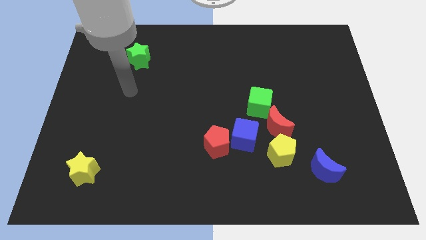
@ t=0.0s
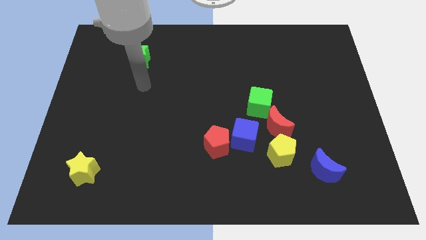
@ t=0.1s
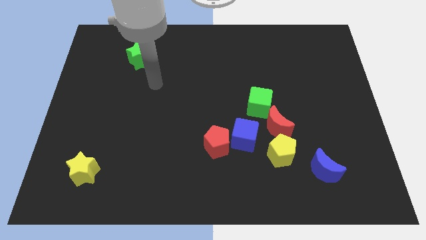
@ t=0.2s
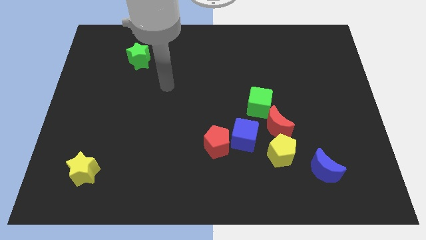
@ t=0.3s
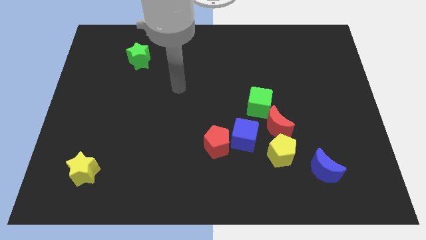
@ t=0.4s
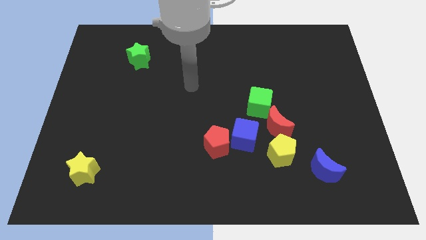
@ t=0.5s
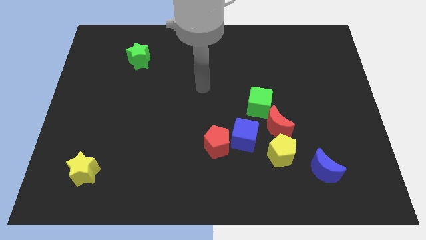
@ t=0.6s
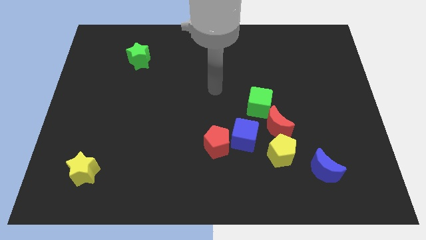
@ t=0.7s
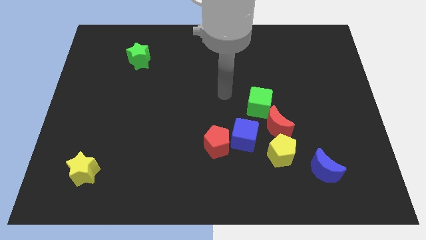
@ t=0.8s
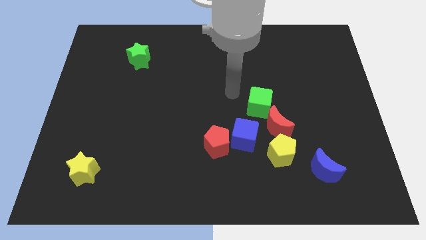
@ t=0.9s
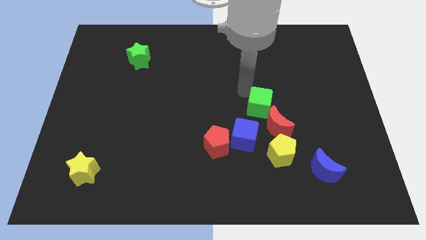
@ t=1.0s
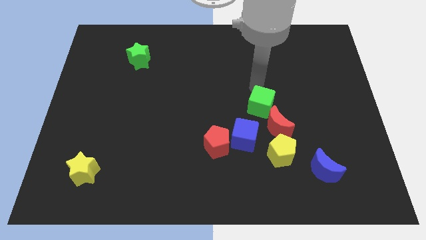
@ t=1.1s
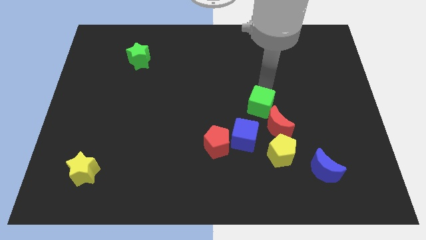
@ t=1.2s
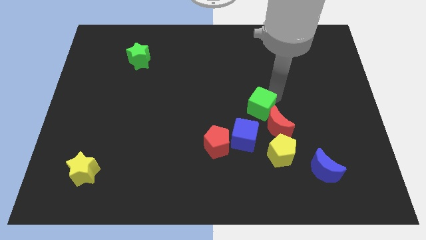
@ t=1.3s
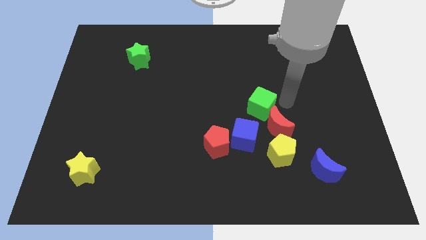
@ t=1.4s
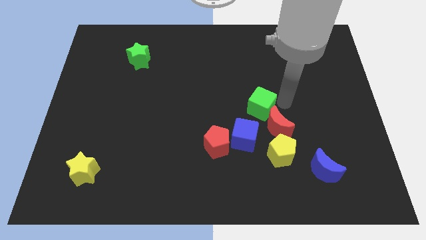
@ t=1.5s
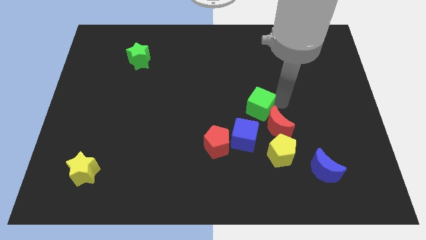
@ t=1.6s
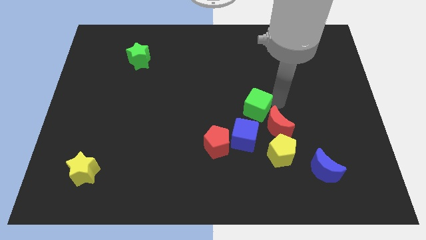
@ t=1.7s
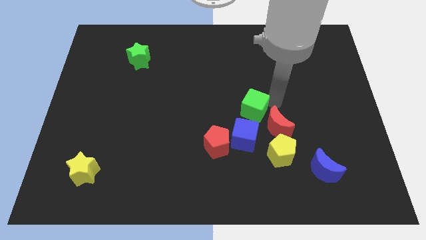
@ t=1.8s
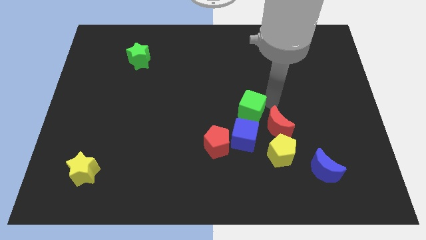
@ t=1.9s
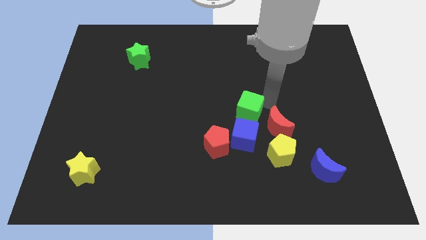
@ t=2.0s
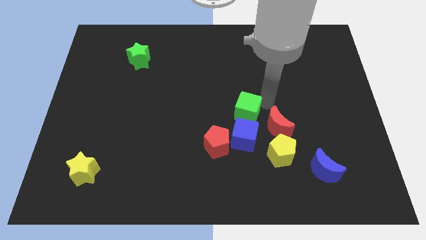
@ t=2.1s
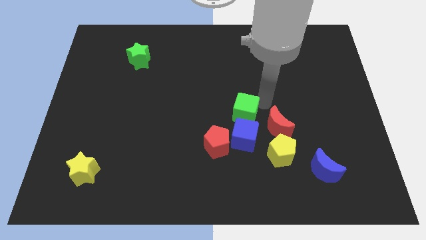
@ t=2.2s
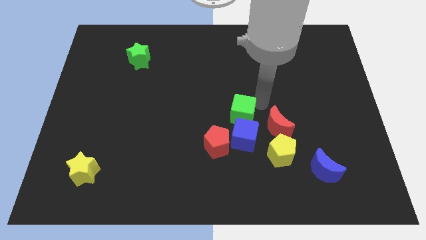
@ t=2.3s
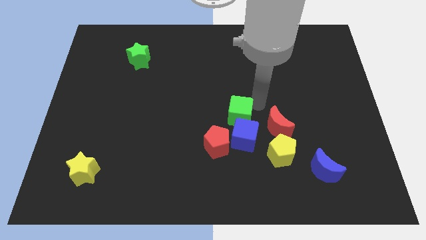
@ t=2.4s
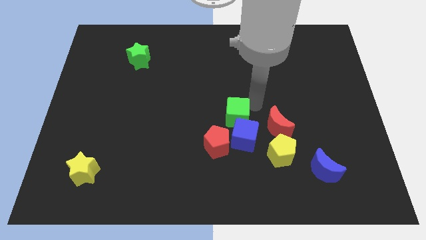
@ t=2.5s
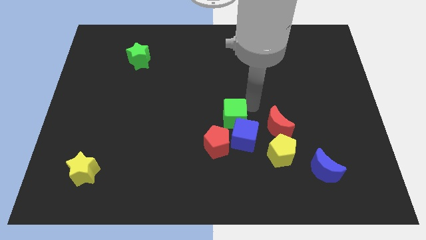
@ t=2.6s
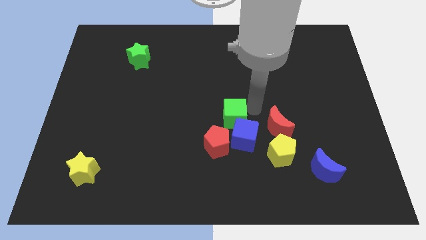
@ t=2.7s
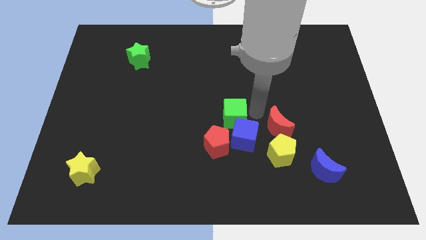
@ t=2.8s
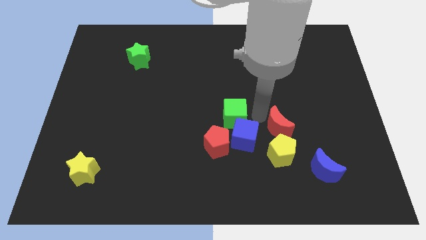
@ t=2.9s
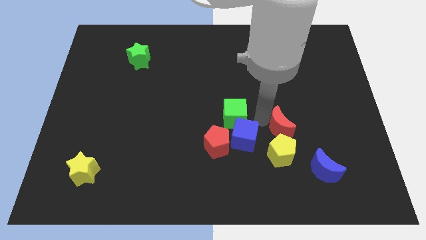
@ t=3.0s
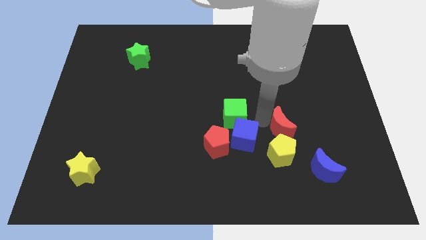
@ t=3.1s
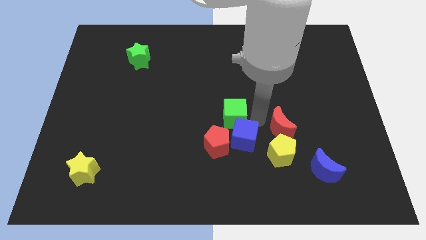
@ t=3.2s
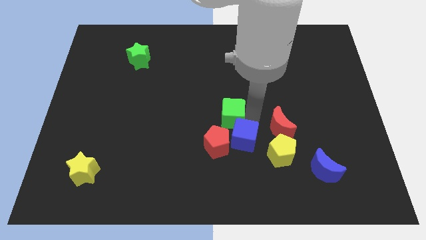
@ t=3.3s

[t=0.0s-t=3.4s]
move the green cube a little bit down and to the left

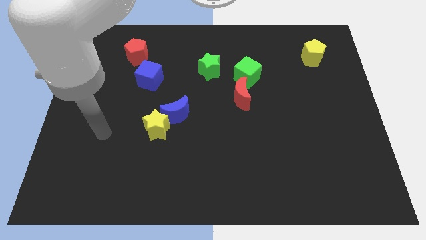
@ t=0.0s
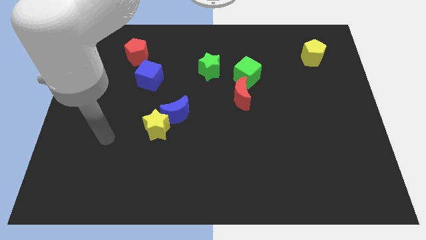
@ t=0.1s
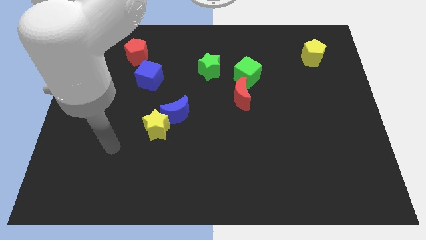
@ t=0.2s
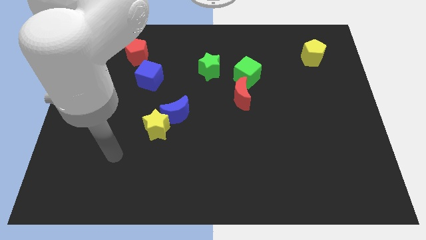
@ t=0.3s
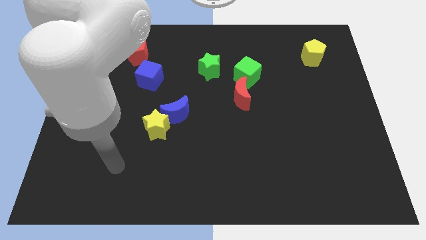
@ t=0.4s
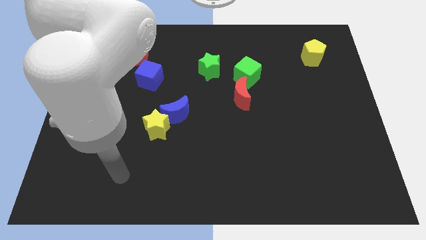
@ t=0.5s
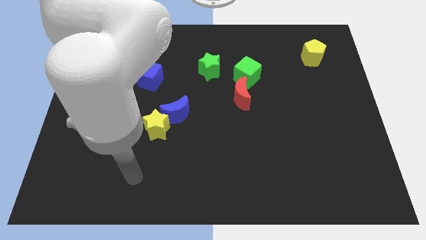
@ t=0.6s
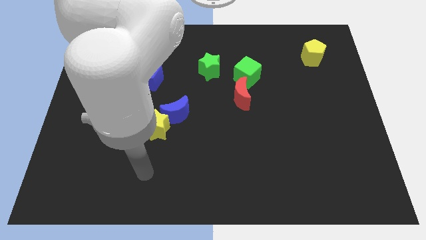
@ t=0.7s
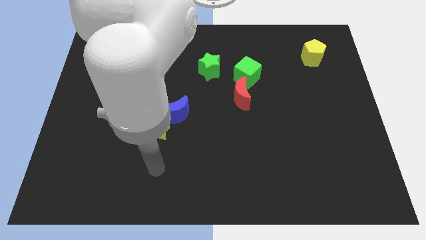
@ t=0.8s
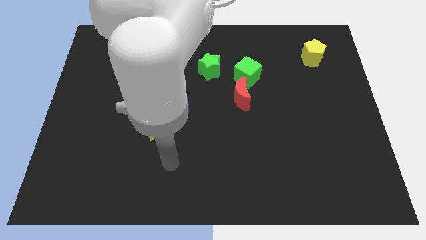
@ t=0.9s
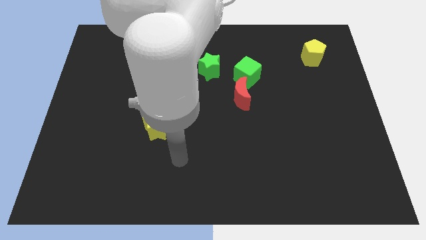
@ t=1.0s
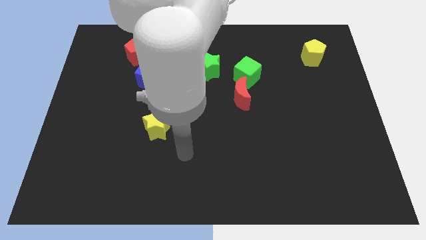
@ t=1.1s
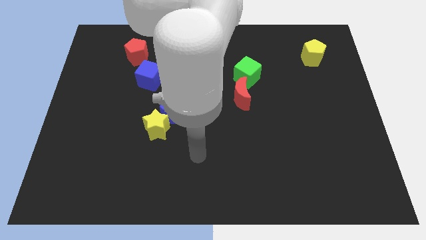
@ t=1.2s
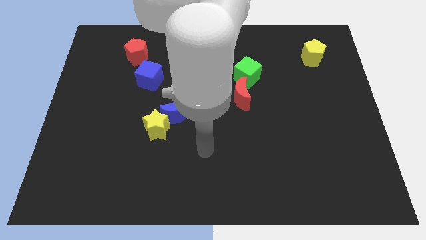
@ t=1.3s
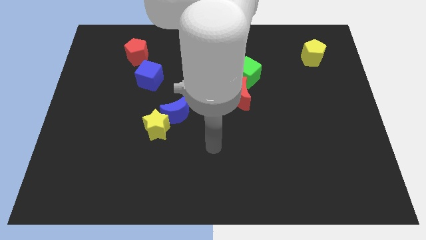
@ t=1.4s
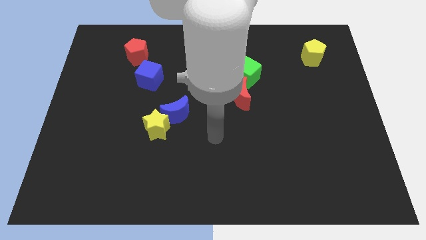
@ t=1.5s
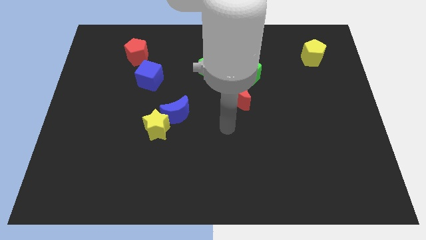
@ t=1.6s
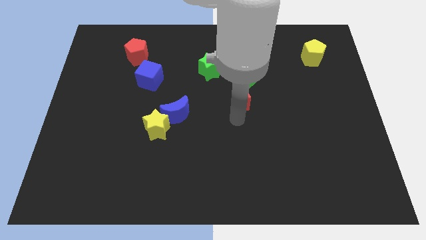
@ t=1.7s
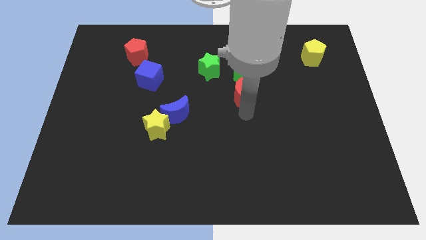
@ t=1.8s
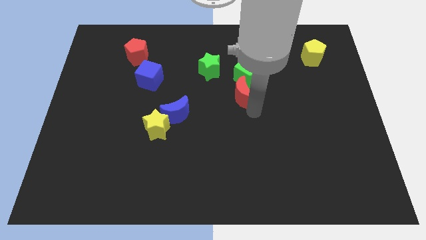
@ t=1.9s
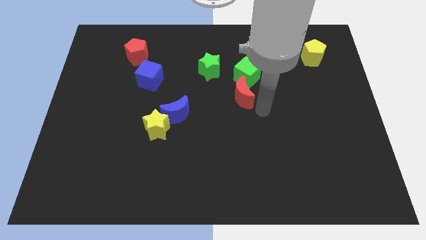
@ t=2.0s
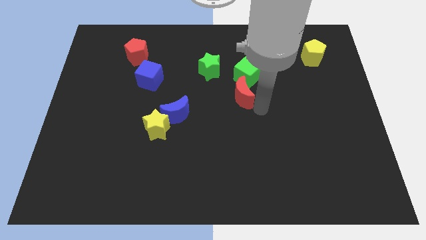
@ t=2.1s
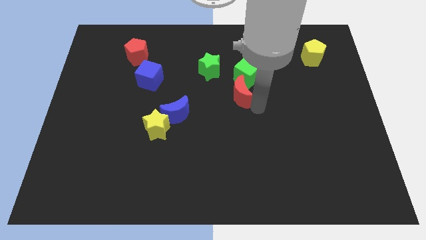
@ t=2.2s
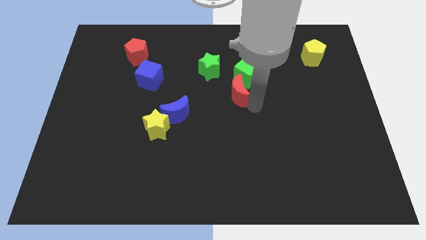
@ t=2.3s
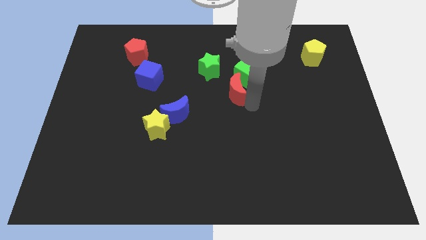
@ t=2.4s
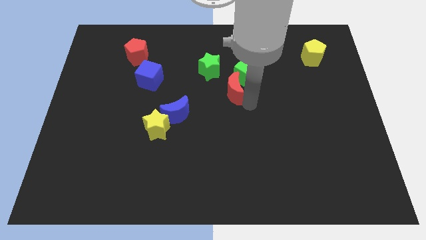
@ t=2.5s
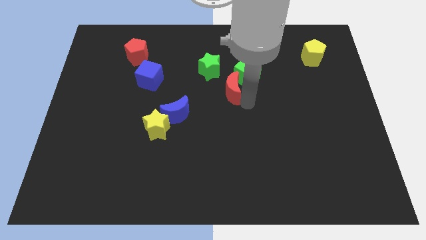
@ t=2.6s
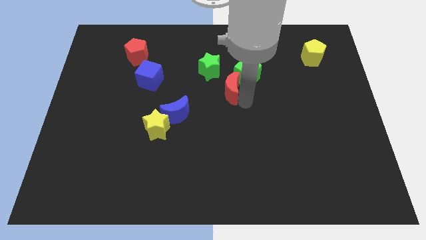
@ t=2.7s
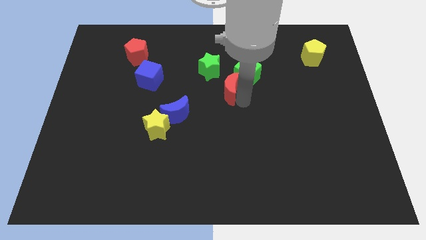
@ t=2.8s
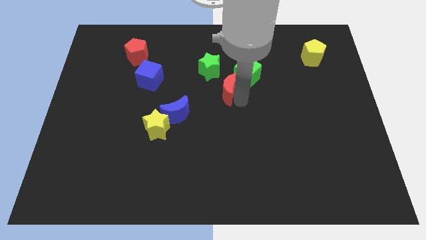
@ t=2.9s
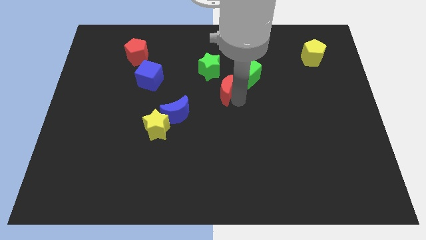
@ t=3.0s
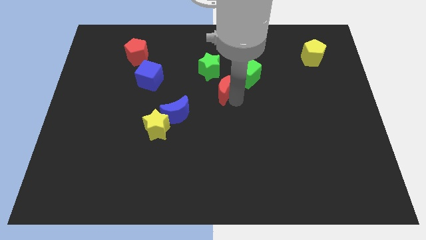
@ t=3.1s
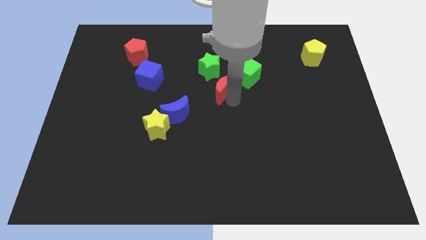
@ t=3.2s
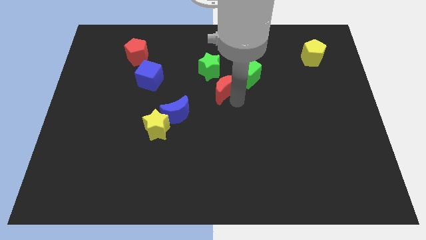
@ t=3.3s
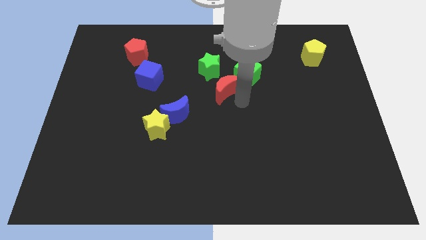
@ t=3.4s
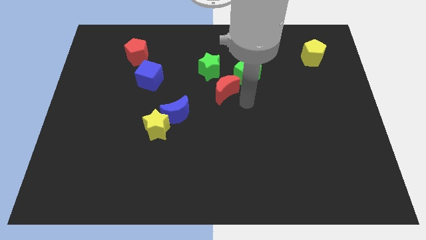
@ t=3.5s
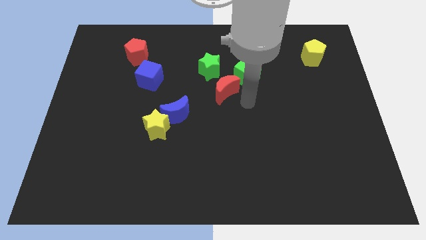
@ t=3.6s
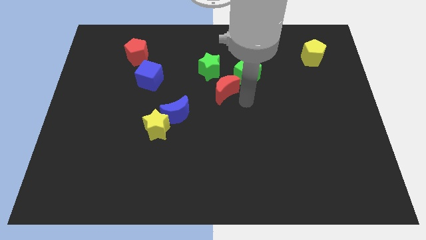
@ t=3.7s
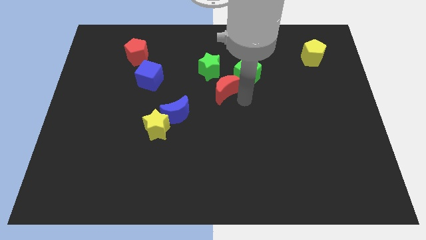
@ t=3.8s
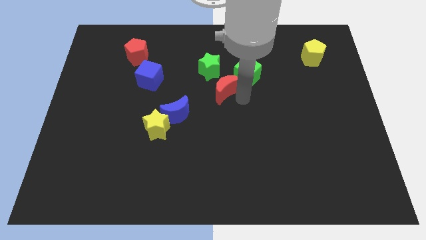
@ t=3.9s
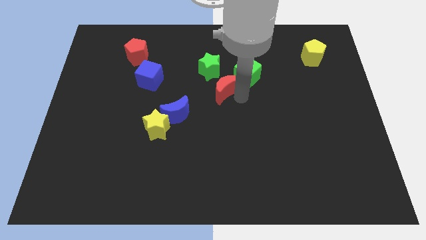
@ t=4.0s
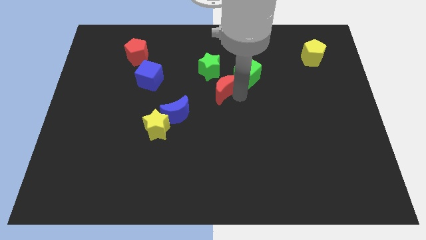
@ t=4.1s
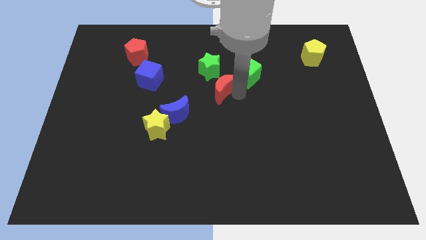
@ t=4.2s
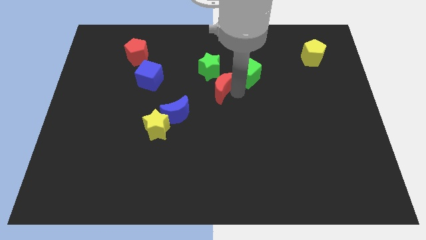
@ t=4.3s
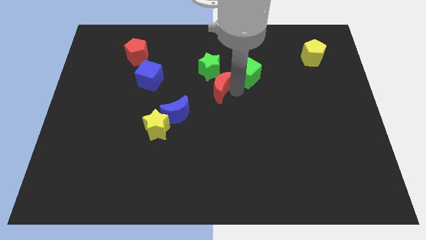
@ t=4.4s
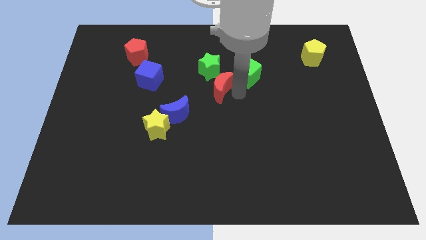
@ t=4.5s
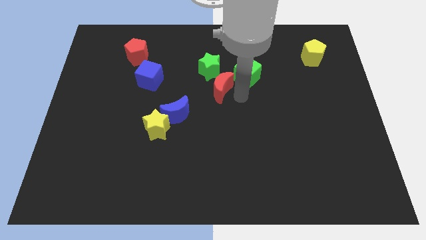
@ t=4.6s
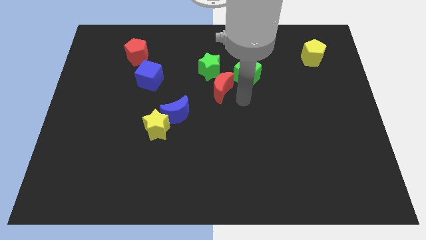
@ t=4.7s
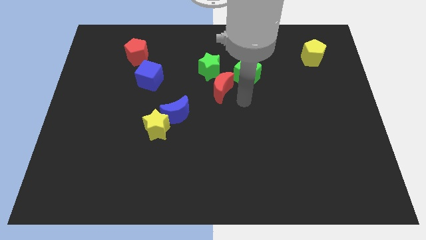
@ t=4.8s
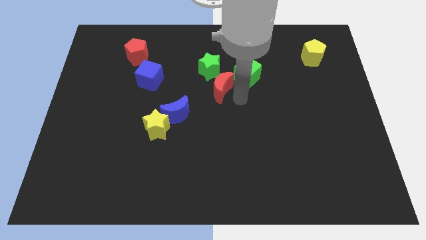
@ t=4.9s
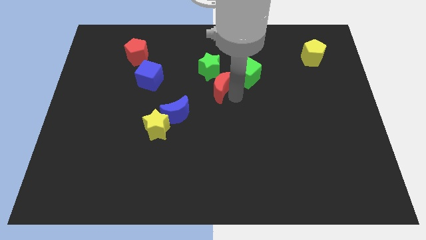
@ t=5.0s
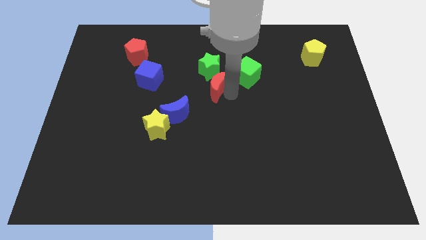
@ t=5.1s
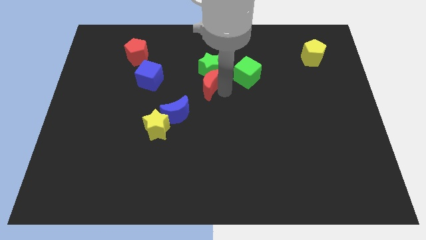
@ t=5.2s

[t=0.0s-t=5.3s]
slide the red moon up and to the left slightly
